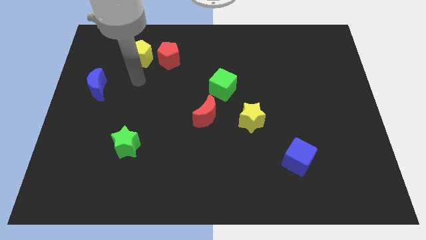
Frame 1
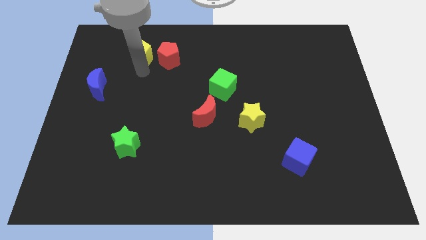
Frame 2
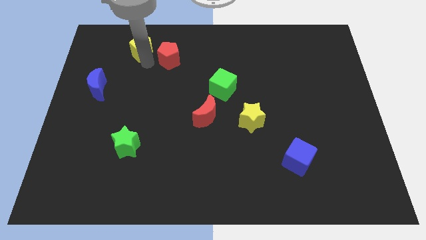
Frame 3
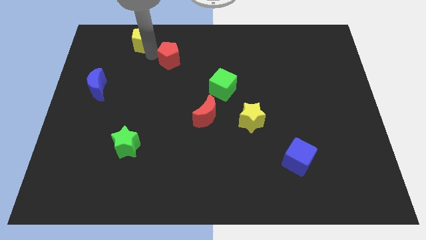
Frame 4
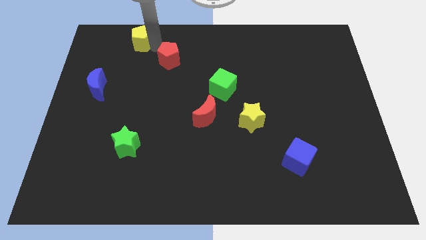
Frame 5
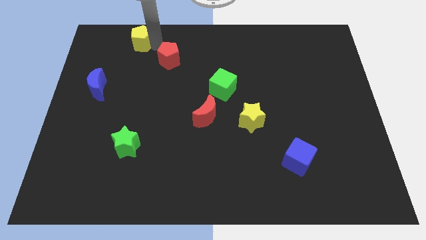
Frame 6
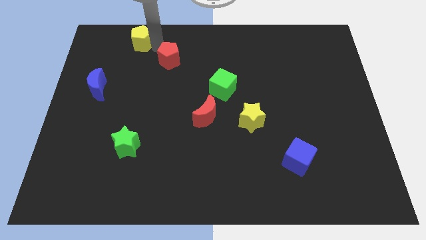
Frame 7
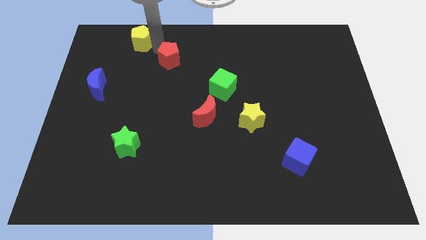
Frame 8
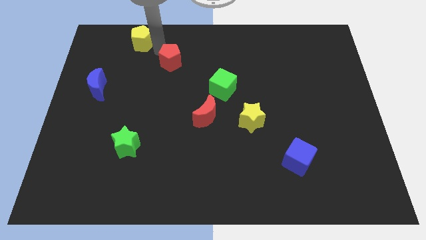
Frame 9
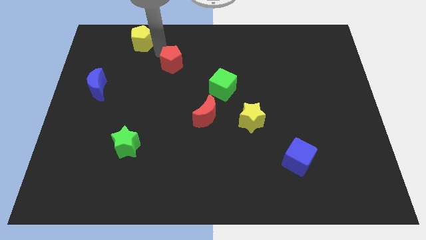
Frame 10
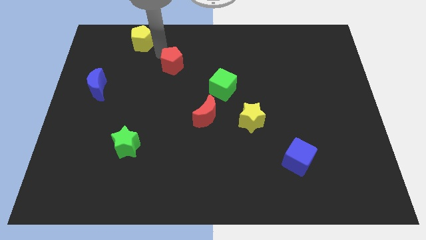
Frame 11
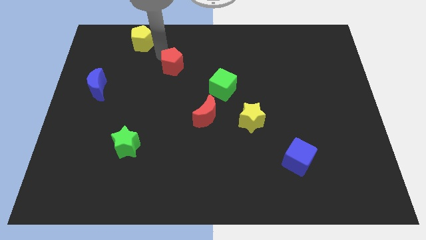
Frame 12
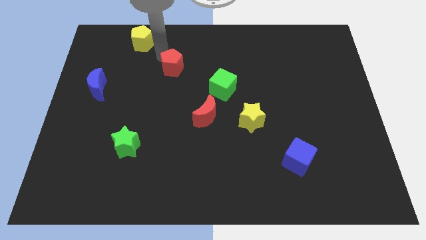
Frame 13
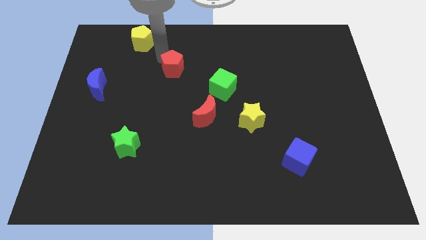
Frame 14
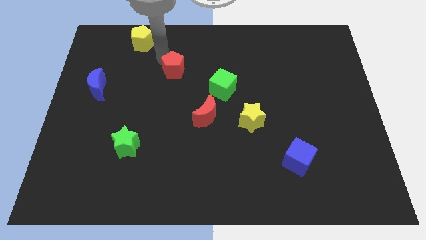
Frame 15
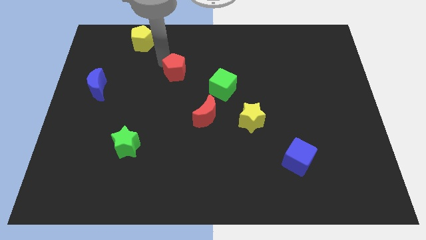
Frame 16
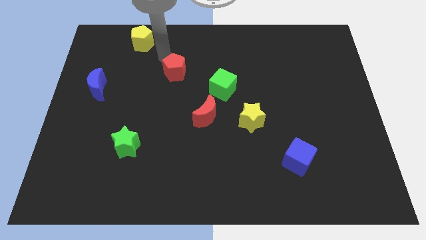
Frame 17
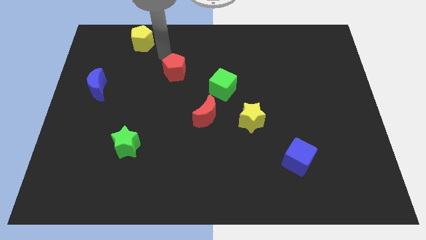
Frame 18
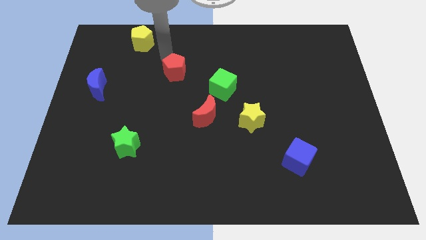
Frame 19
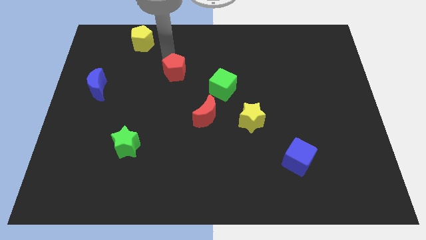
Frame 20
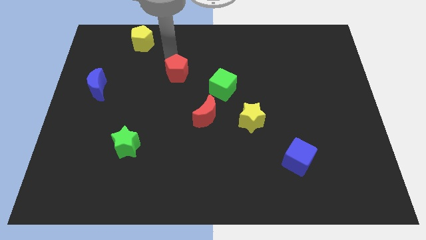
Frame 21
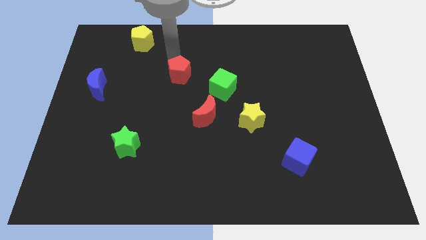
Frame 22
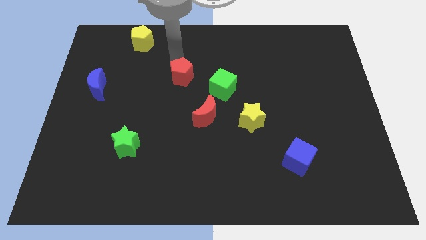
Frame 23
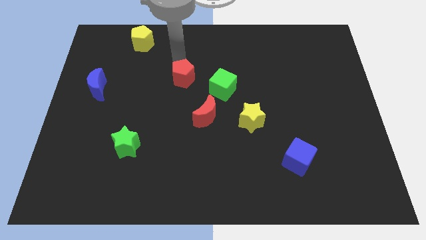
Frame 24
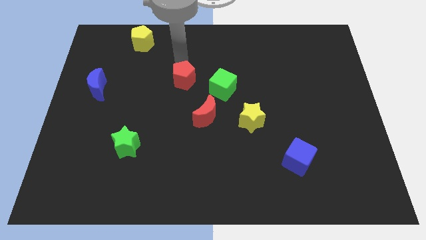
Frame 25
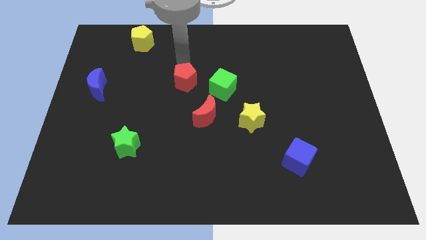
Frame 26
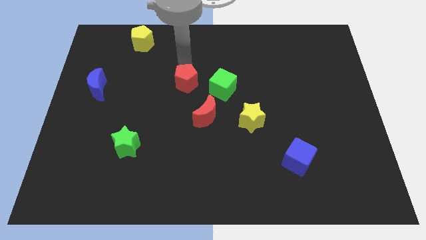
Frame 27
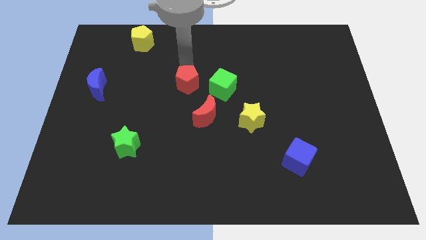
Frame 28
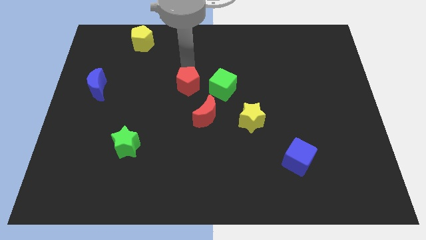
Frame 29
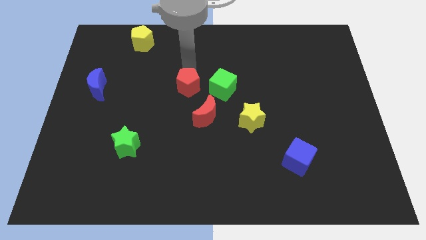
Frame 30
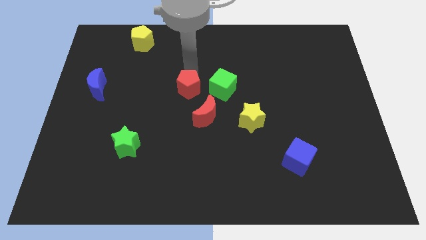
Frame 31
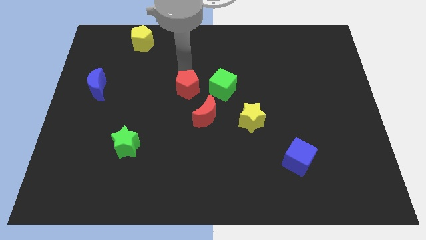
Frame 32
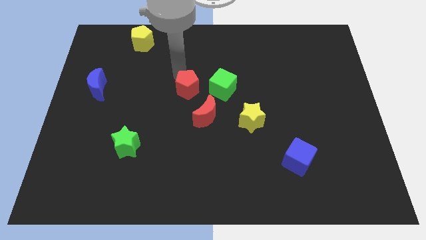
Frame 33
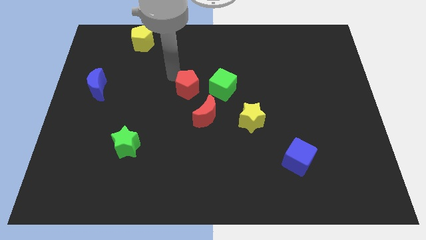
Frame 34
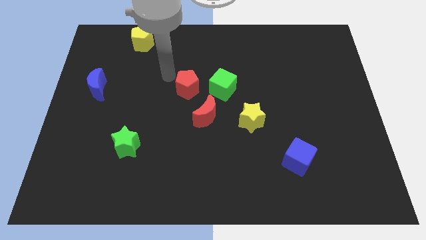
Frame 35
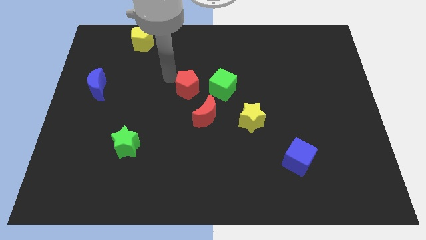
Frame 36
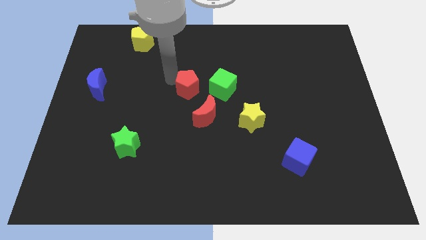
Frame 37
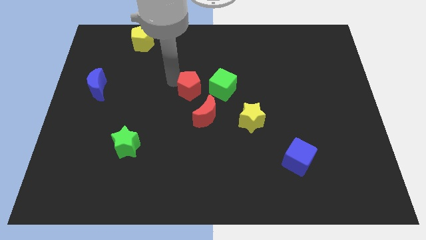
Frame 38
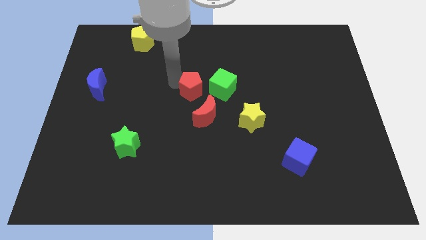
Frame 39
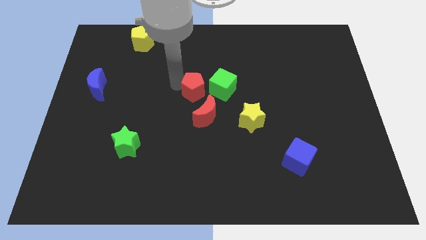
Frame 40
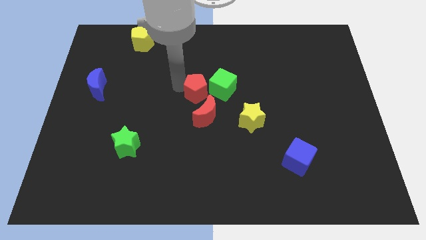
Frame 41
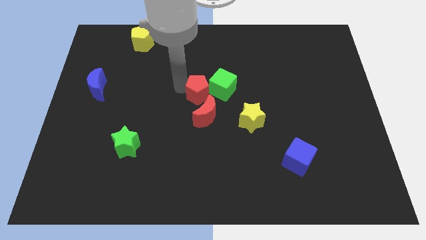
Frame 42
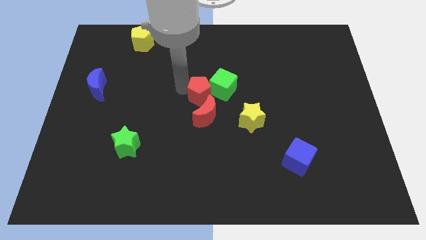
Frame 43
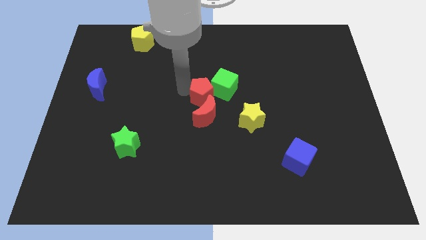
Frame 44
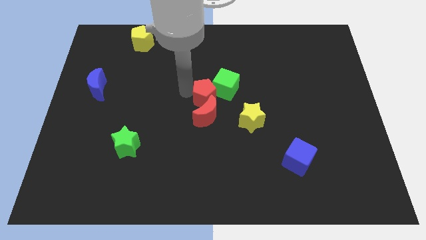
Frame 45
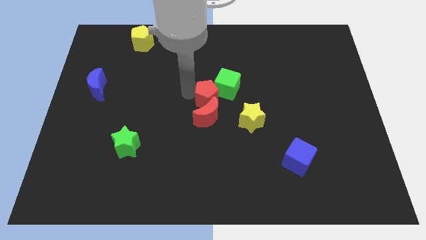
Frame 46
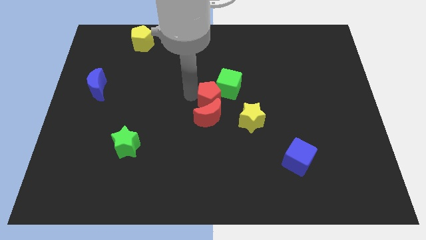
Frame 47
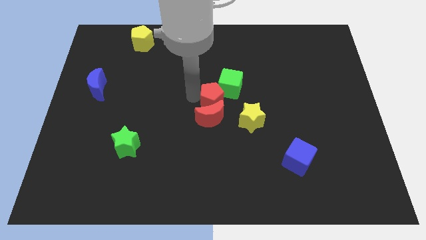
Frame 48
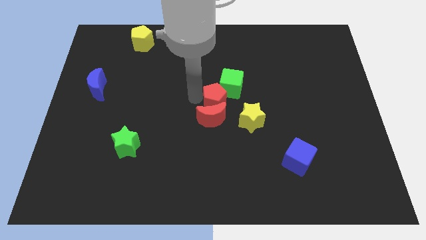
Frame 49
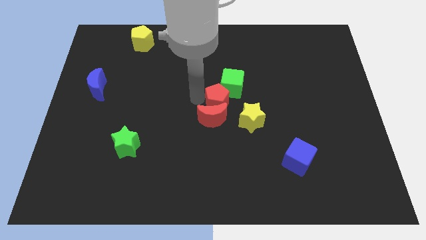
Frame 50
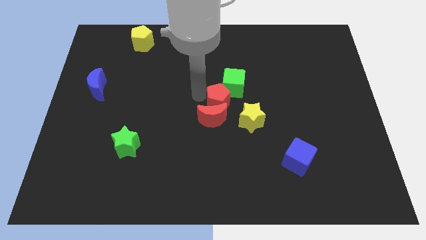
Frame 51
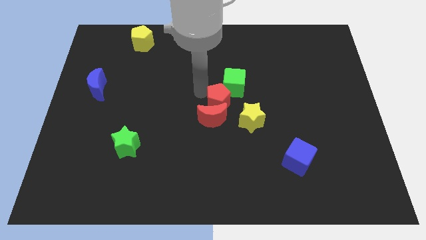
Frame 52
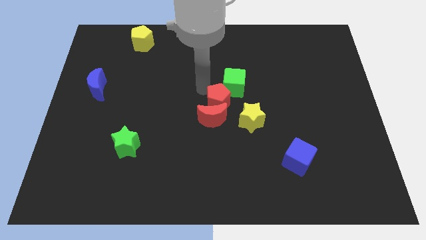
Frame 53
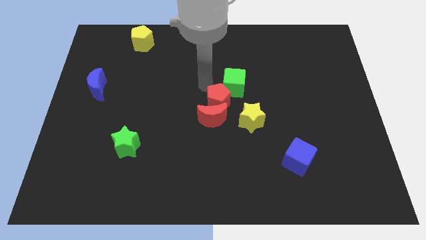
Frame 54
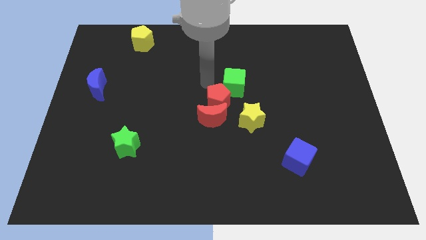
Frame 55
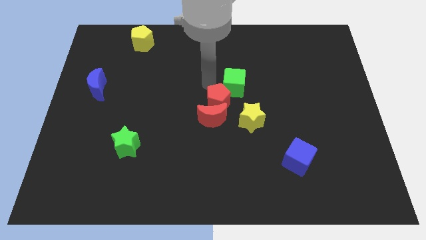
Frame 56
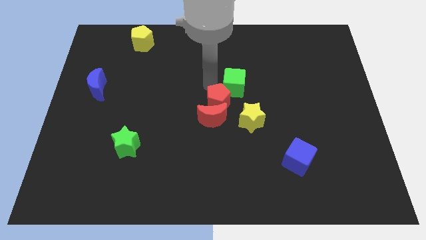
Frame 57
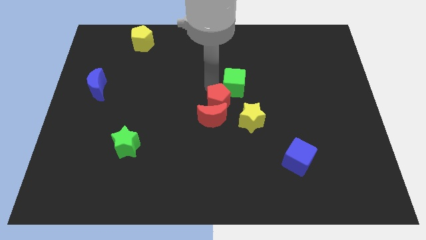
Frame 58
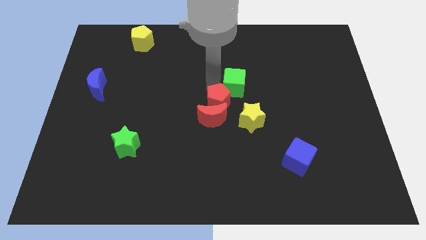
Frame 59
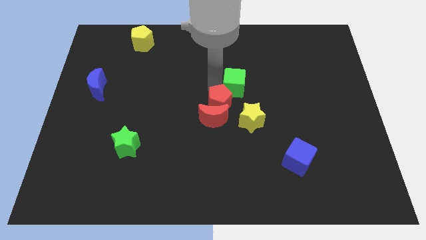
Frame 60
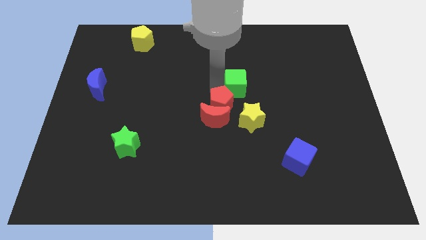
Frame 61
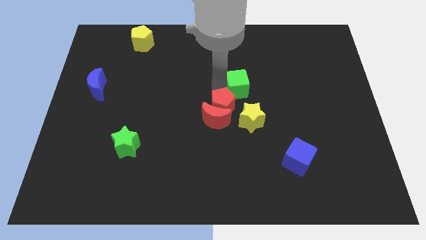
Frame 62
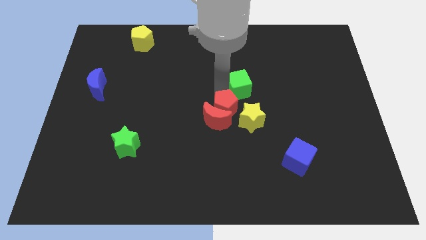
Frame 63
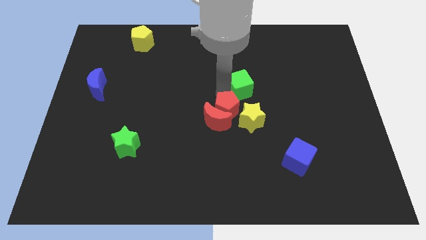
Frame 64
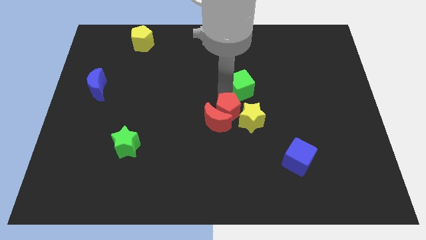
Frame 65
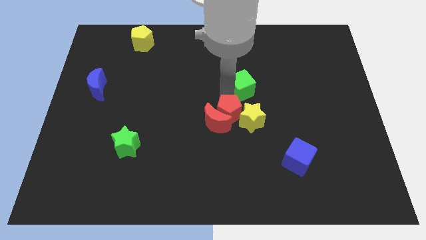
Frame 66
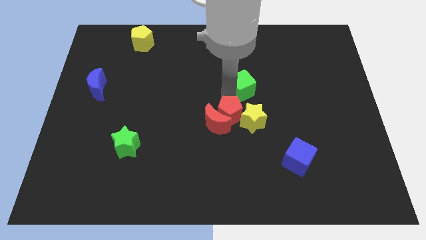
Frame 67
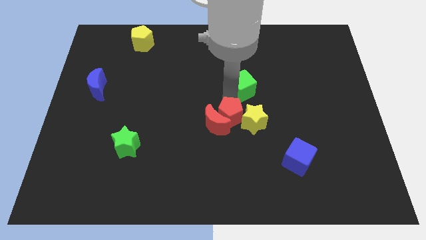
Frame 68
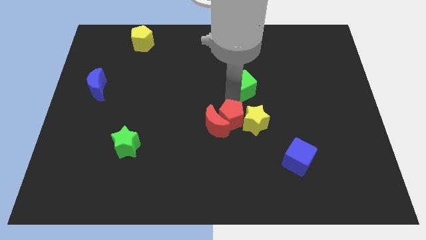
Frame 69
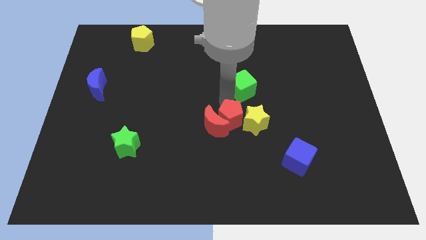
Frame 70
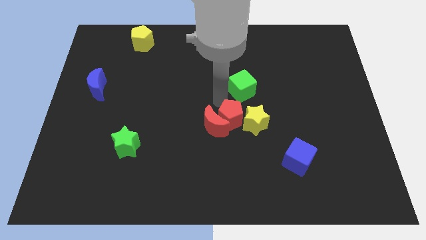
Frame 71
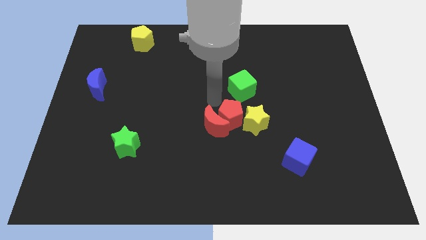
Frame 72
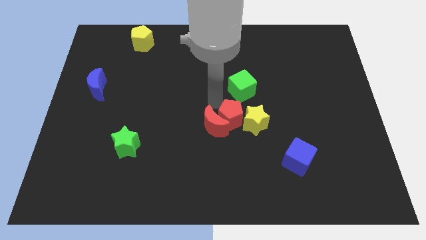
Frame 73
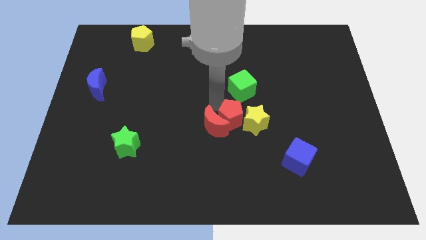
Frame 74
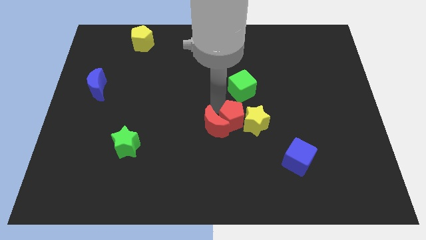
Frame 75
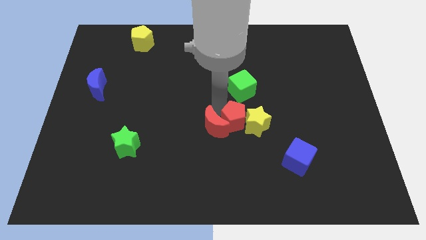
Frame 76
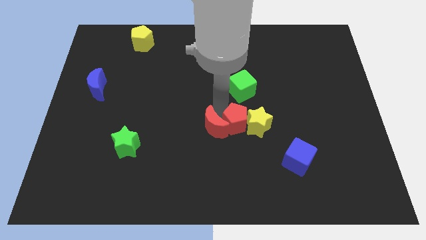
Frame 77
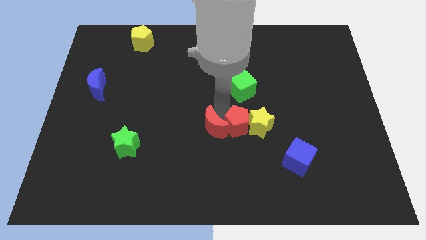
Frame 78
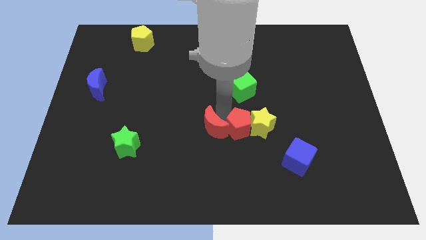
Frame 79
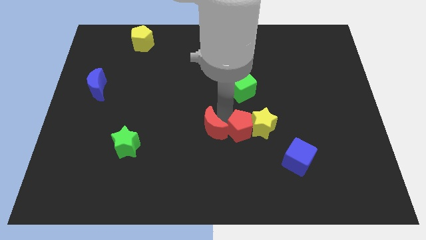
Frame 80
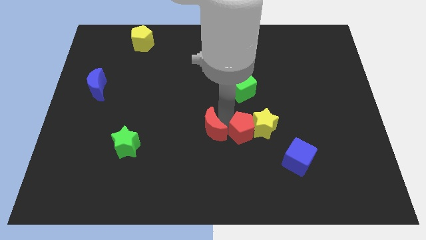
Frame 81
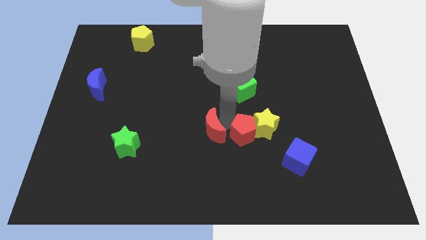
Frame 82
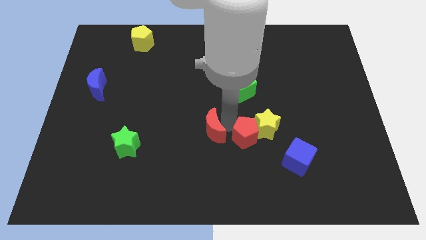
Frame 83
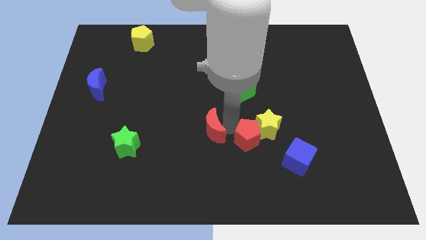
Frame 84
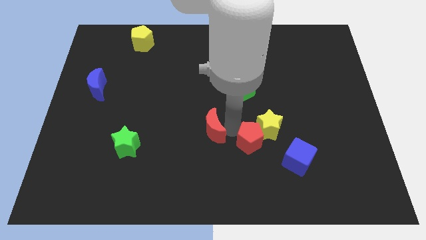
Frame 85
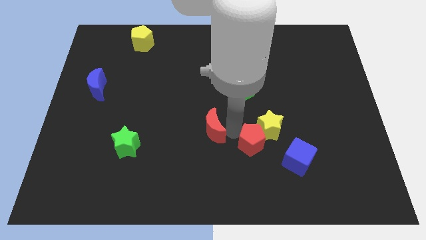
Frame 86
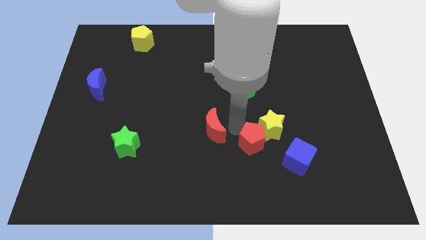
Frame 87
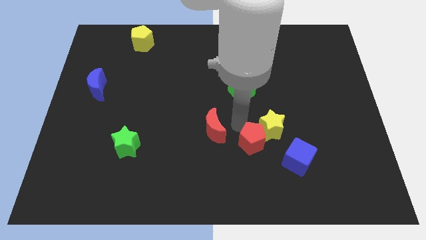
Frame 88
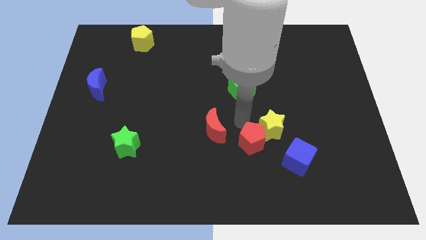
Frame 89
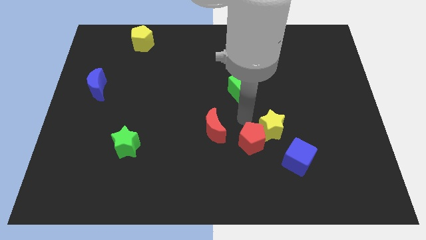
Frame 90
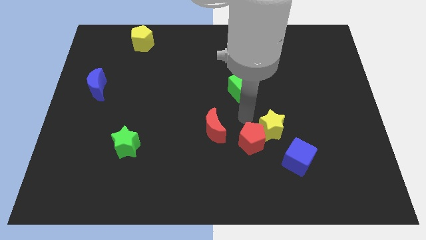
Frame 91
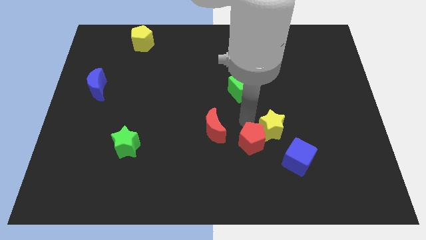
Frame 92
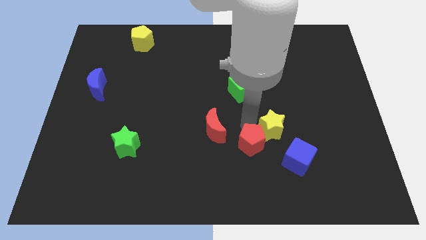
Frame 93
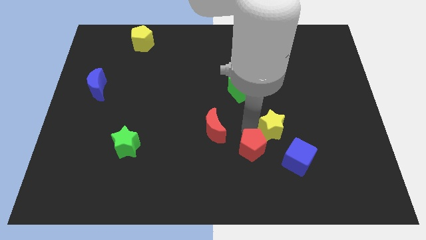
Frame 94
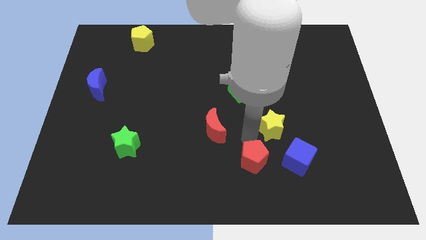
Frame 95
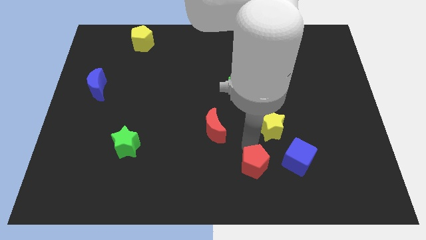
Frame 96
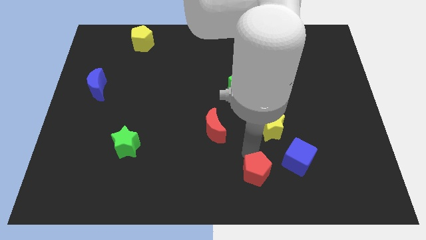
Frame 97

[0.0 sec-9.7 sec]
push the red pentagon to the bottom left side of the blue cube
